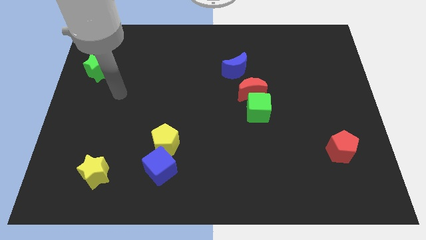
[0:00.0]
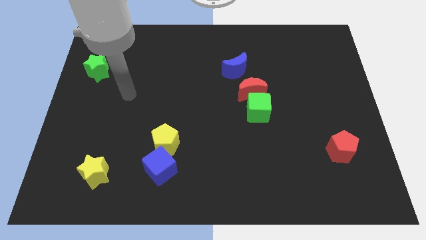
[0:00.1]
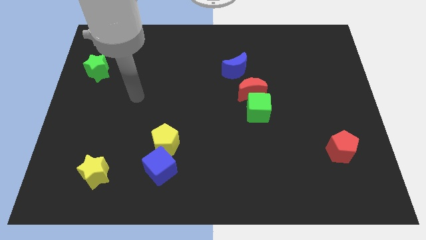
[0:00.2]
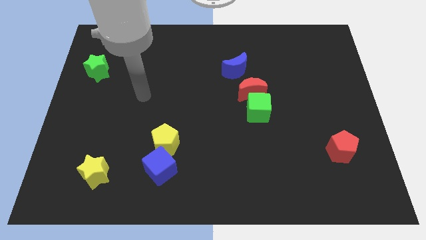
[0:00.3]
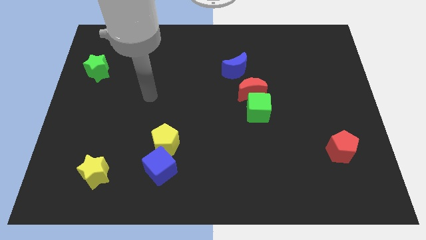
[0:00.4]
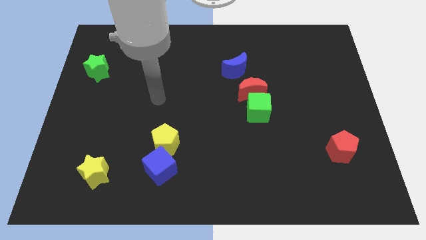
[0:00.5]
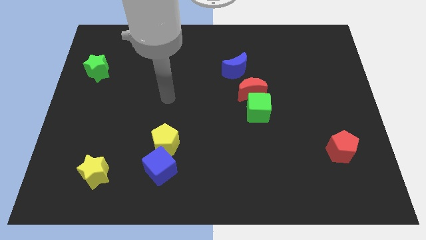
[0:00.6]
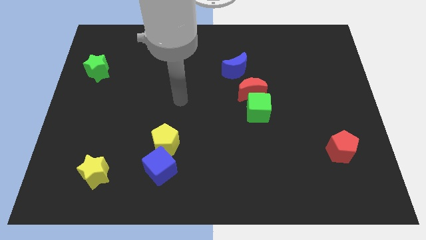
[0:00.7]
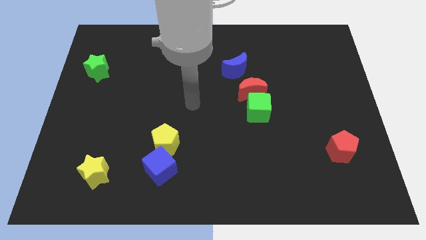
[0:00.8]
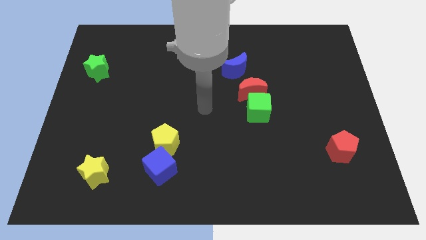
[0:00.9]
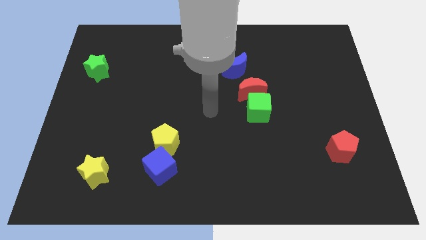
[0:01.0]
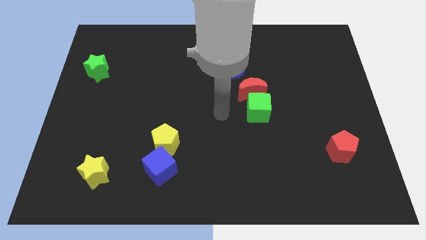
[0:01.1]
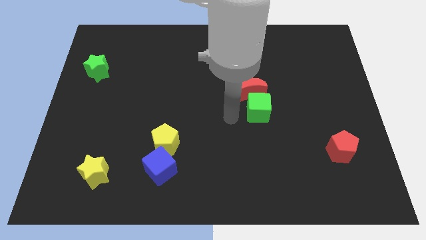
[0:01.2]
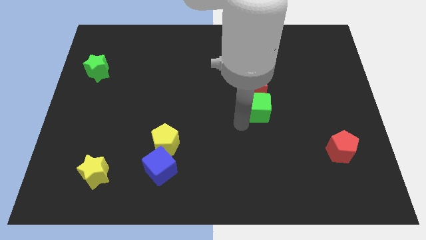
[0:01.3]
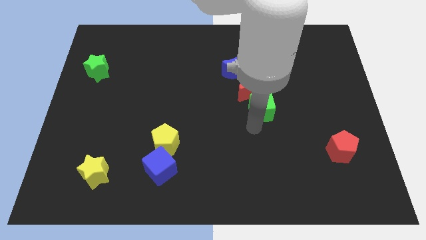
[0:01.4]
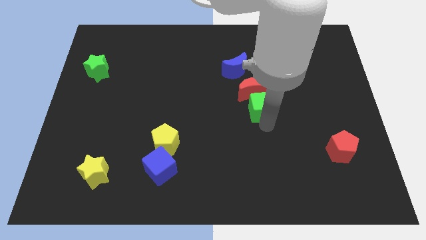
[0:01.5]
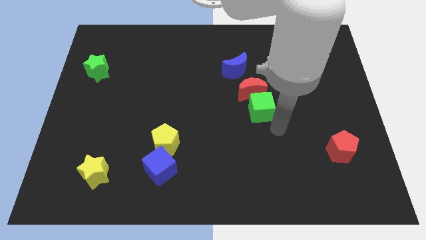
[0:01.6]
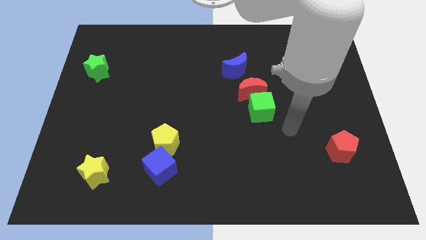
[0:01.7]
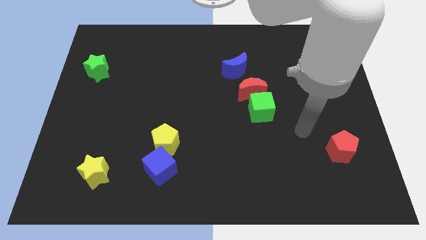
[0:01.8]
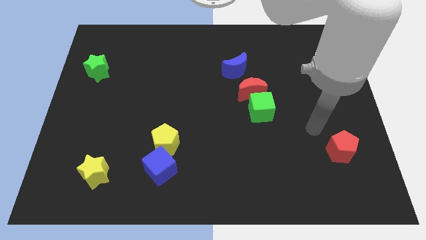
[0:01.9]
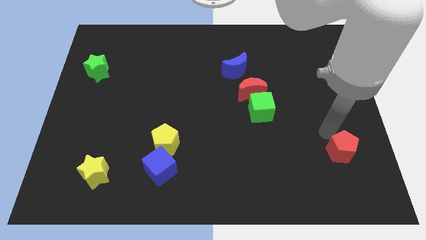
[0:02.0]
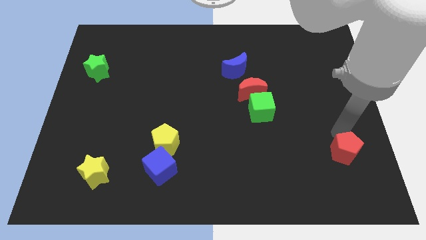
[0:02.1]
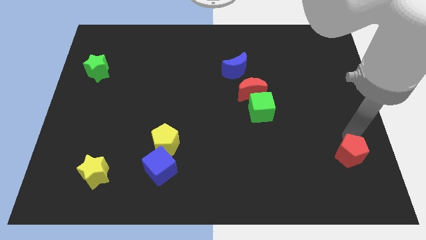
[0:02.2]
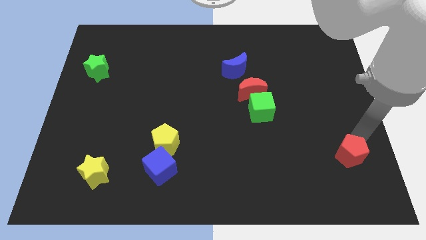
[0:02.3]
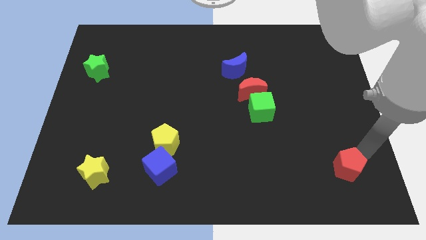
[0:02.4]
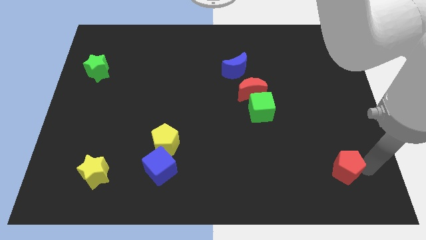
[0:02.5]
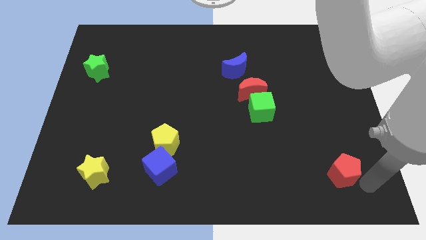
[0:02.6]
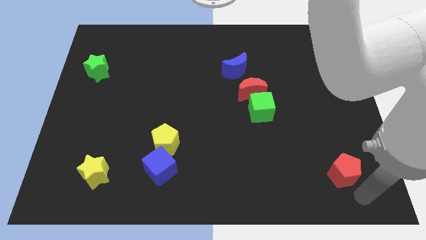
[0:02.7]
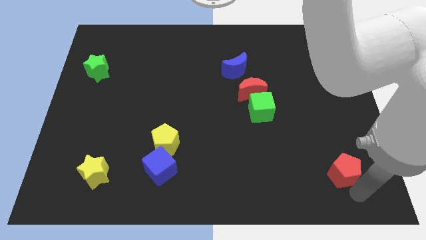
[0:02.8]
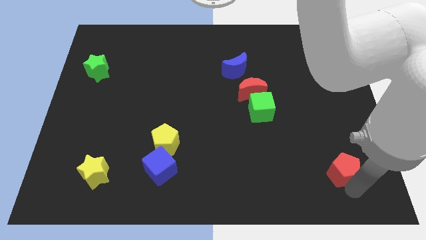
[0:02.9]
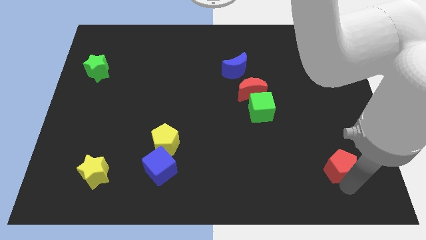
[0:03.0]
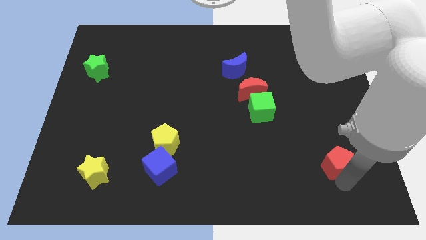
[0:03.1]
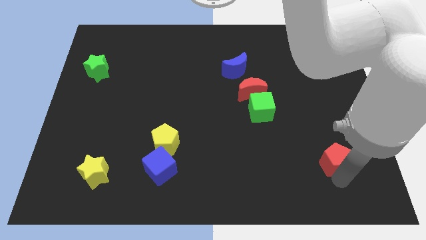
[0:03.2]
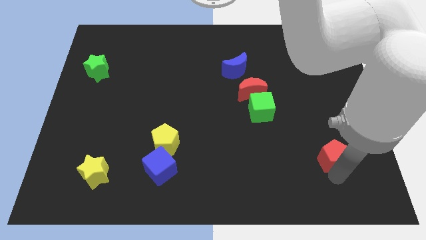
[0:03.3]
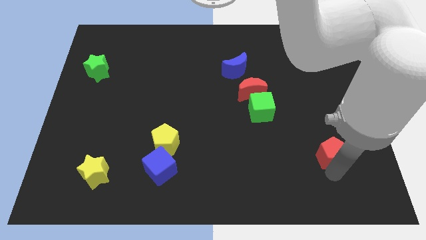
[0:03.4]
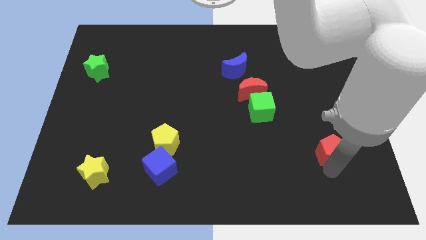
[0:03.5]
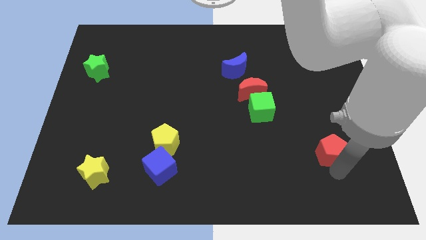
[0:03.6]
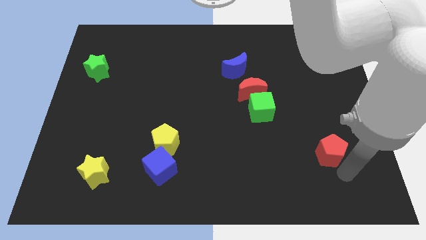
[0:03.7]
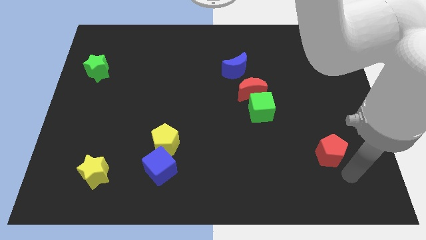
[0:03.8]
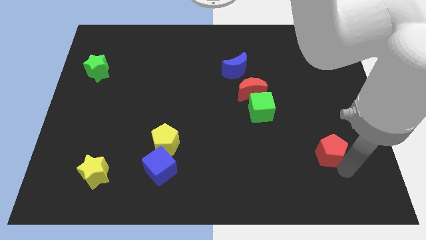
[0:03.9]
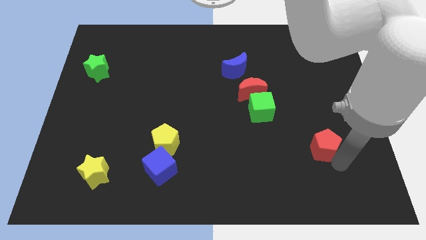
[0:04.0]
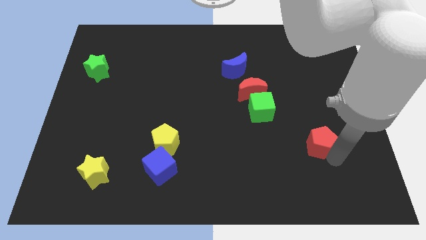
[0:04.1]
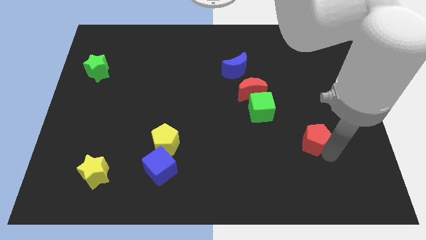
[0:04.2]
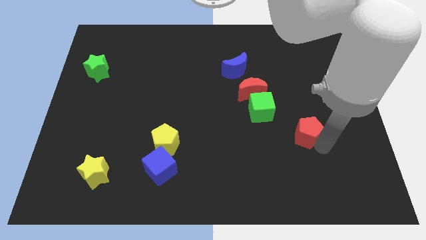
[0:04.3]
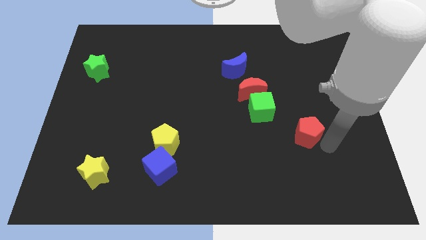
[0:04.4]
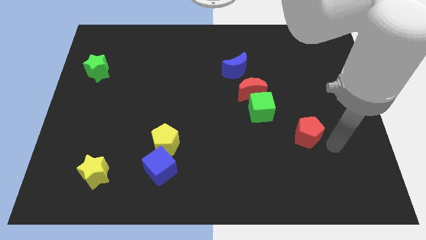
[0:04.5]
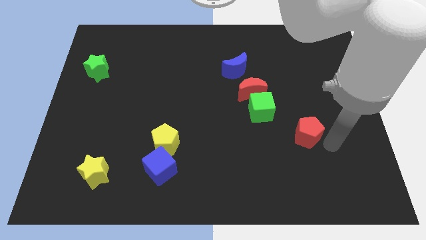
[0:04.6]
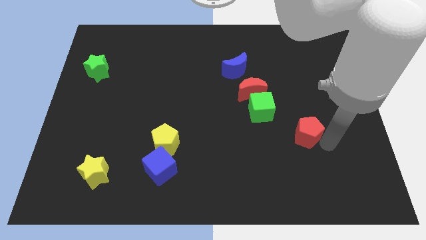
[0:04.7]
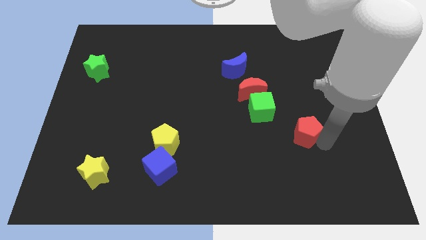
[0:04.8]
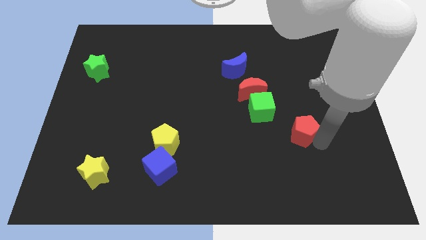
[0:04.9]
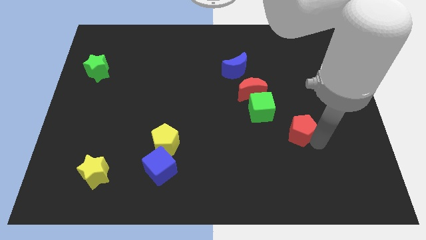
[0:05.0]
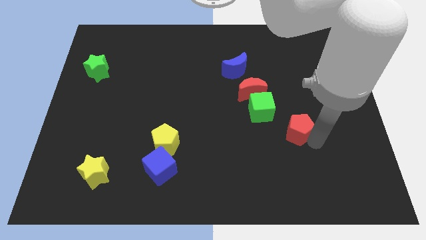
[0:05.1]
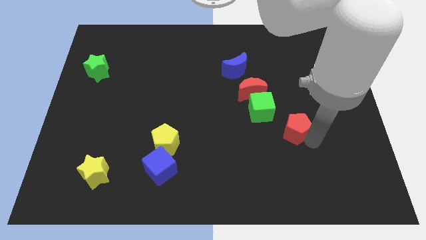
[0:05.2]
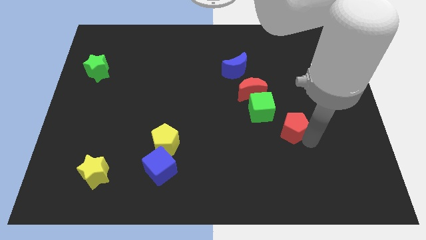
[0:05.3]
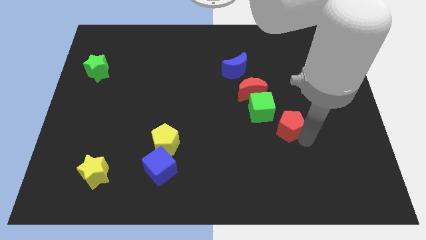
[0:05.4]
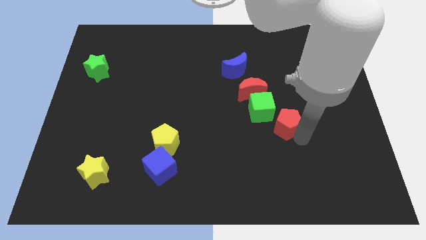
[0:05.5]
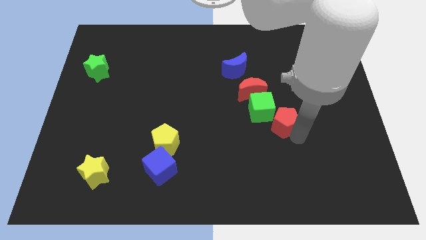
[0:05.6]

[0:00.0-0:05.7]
push the red pentagon next to the green cube

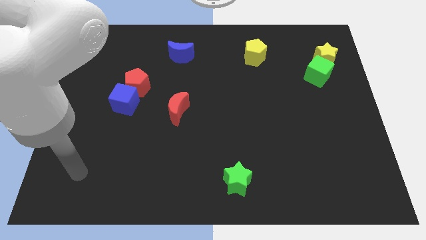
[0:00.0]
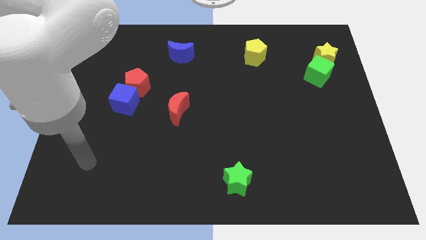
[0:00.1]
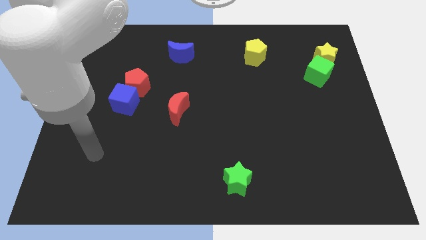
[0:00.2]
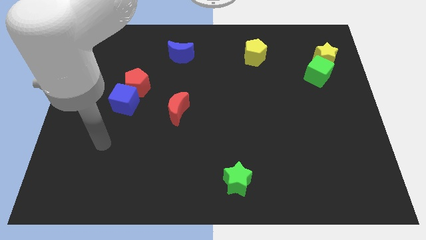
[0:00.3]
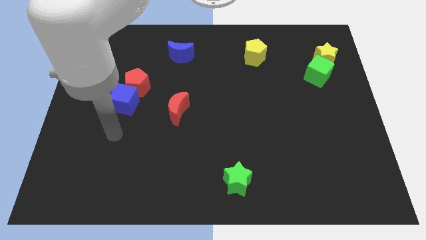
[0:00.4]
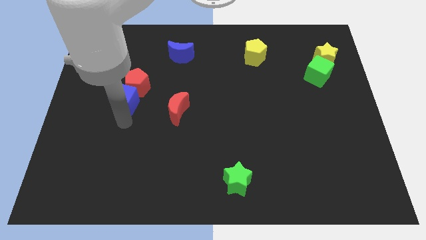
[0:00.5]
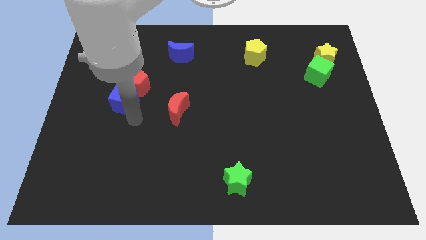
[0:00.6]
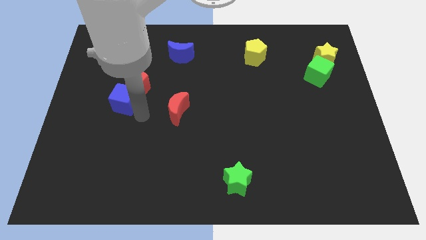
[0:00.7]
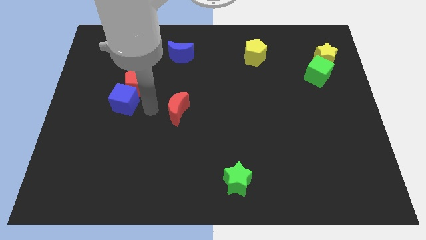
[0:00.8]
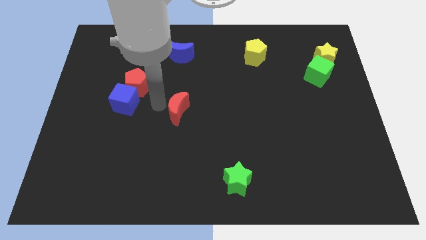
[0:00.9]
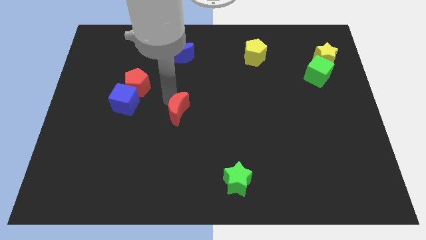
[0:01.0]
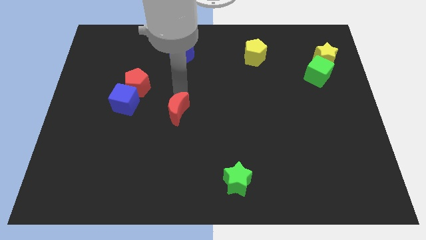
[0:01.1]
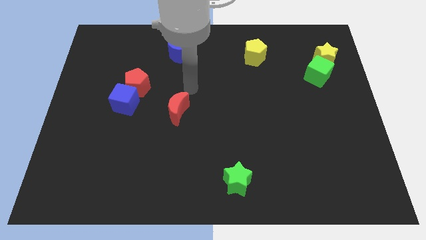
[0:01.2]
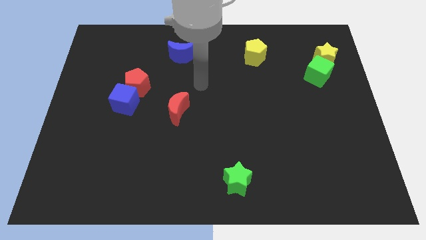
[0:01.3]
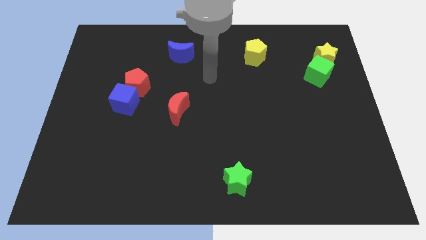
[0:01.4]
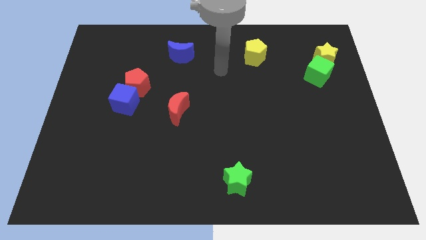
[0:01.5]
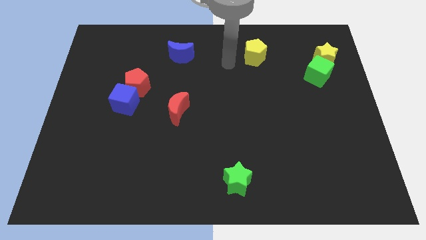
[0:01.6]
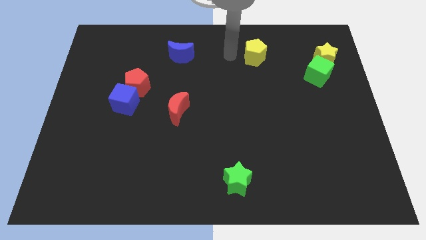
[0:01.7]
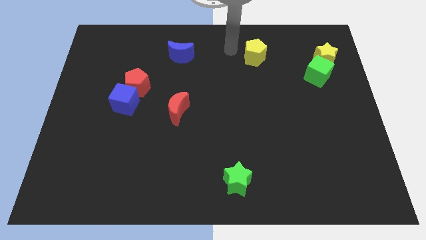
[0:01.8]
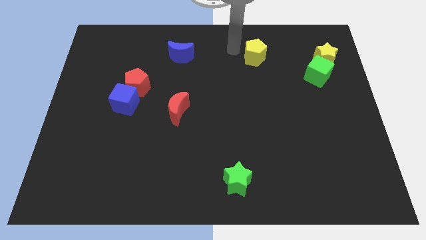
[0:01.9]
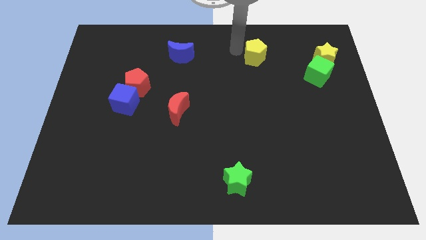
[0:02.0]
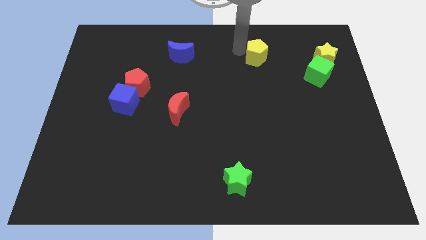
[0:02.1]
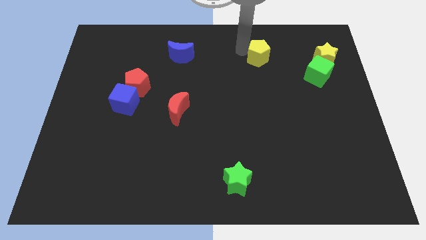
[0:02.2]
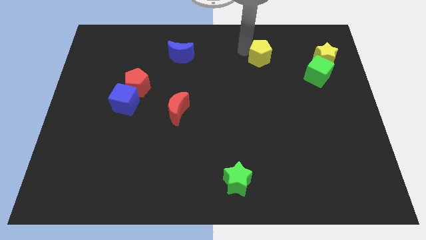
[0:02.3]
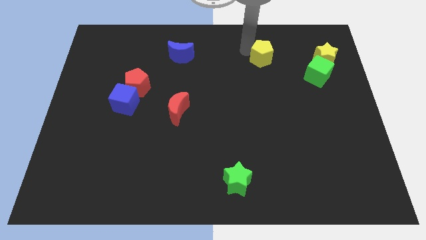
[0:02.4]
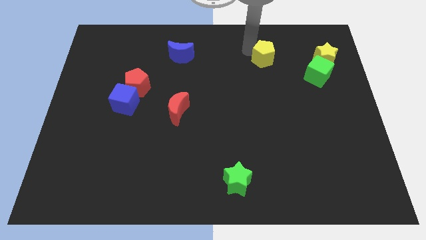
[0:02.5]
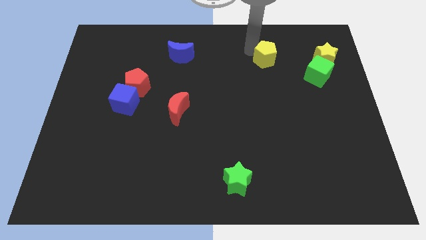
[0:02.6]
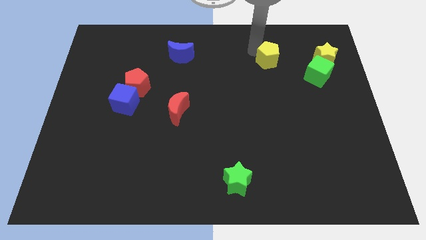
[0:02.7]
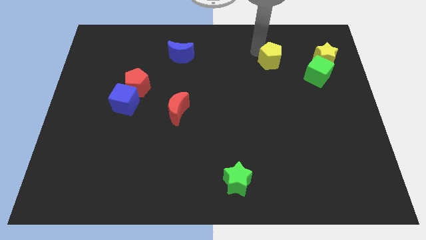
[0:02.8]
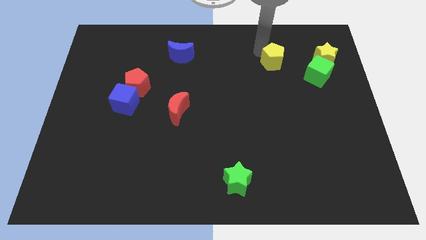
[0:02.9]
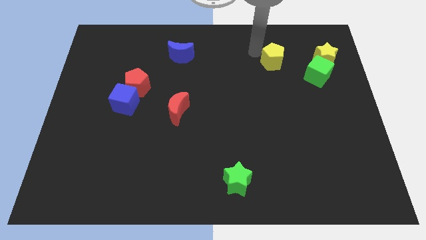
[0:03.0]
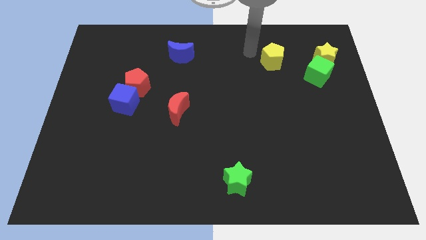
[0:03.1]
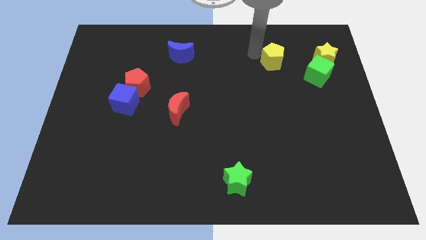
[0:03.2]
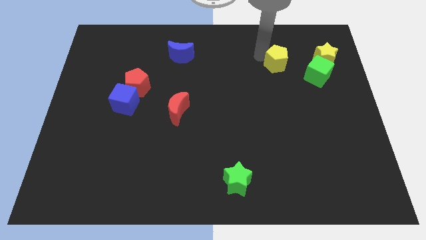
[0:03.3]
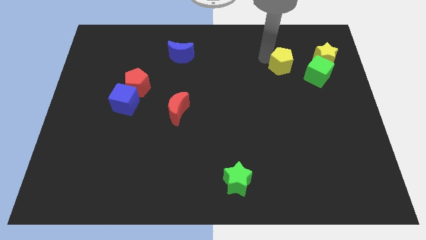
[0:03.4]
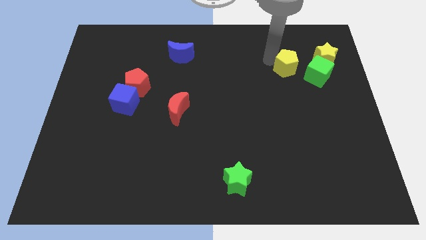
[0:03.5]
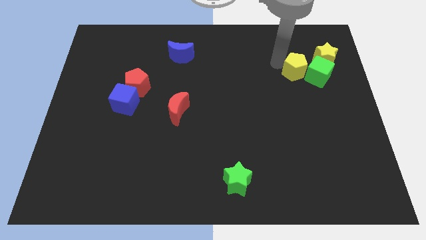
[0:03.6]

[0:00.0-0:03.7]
put the yellow pentagon next to the green cube
